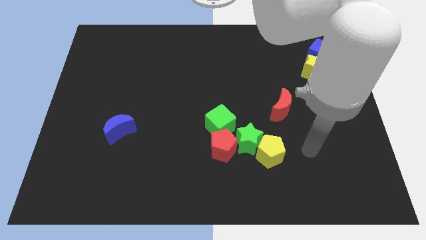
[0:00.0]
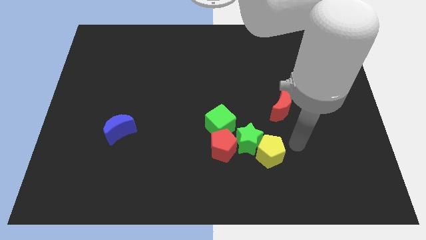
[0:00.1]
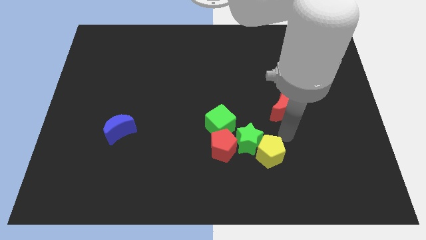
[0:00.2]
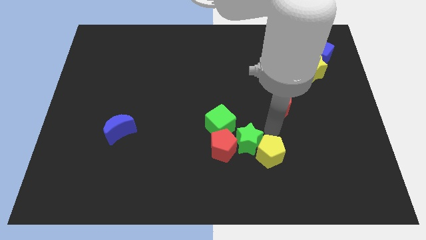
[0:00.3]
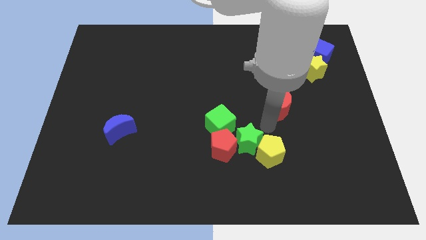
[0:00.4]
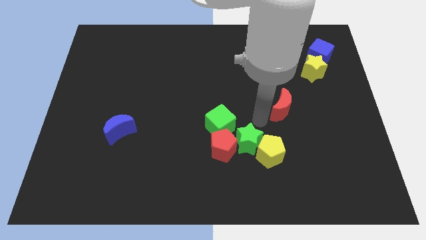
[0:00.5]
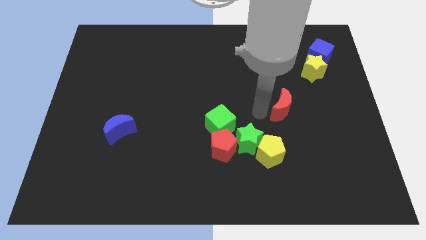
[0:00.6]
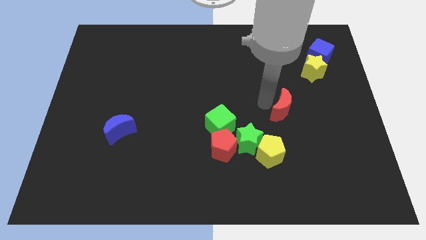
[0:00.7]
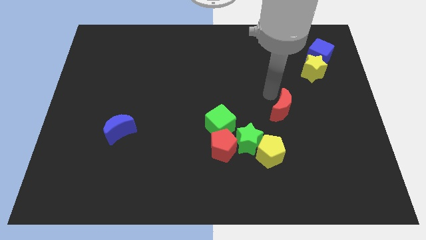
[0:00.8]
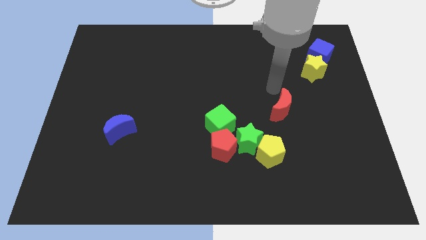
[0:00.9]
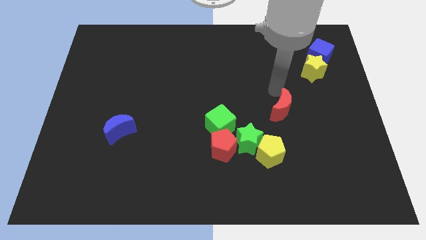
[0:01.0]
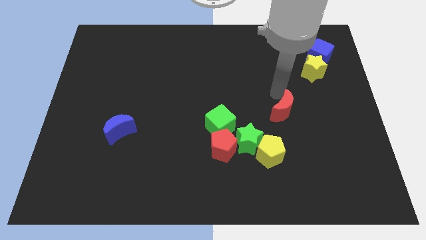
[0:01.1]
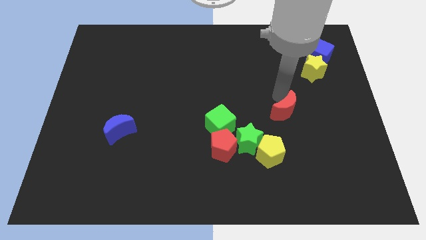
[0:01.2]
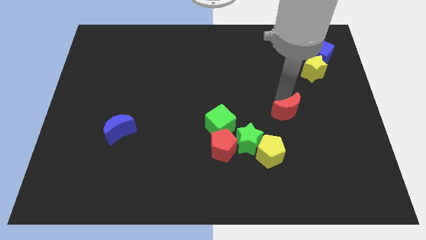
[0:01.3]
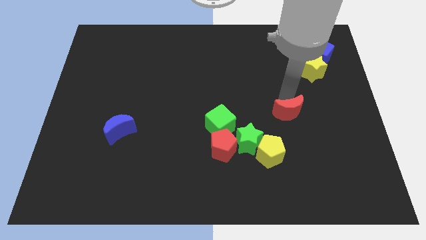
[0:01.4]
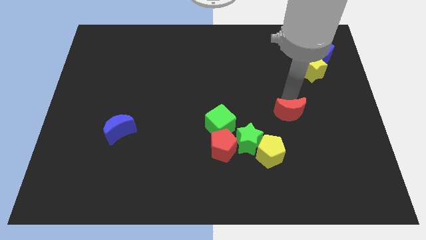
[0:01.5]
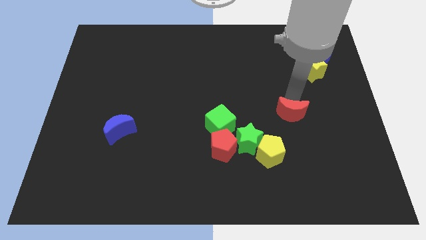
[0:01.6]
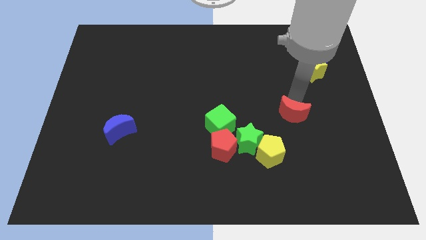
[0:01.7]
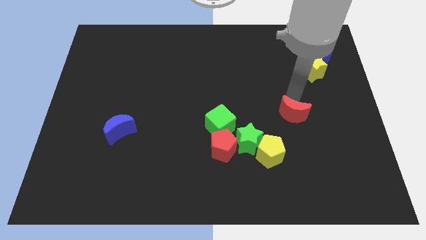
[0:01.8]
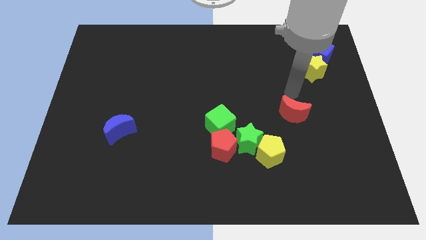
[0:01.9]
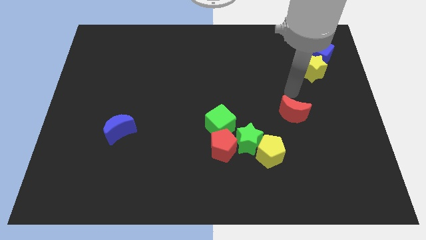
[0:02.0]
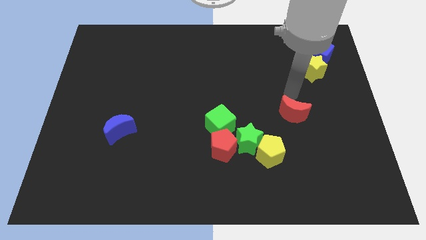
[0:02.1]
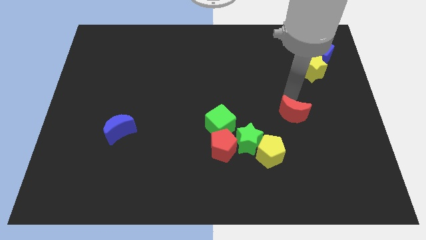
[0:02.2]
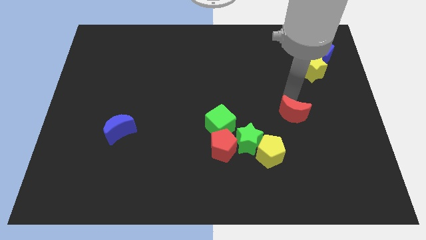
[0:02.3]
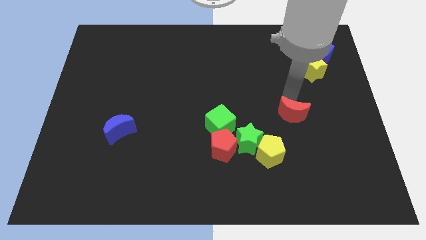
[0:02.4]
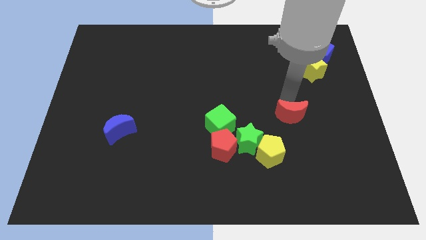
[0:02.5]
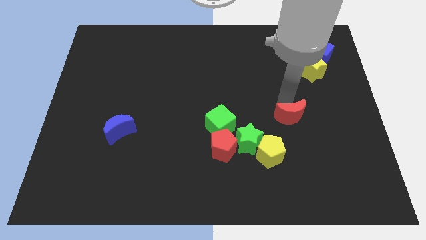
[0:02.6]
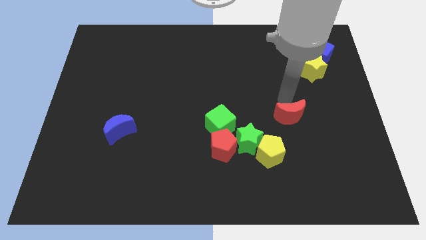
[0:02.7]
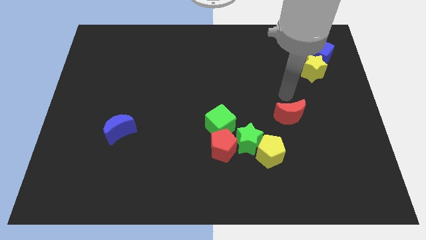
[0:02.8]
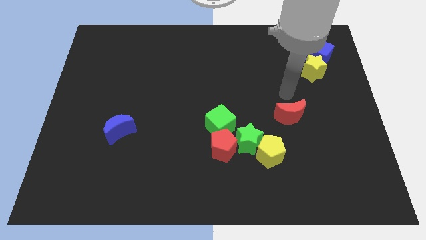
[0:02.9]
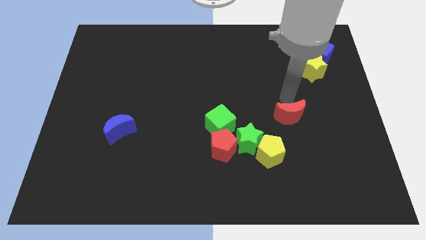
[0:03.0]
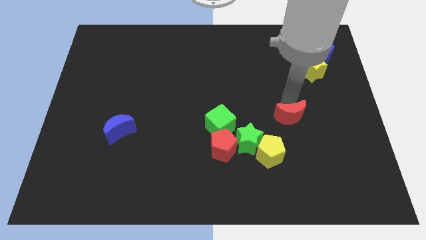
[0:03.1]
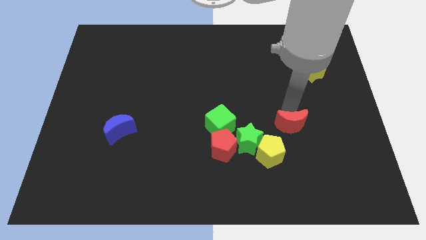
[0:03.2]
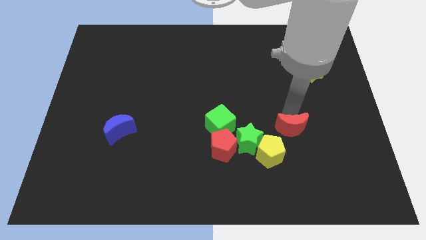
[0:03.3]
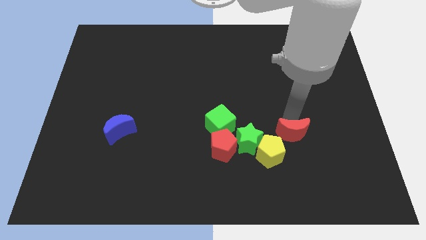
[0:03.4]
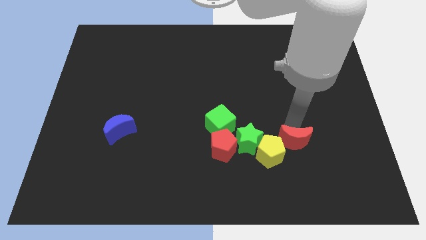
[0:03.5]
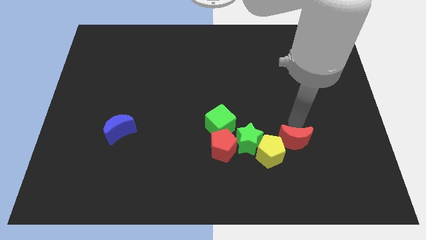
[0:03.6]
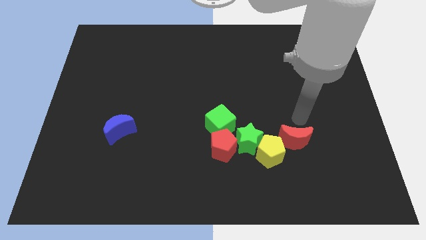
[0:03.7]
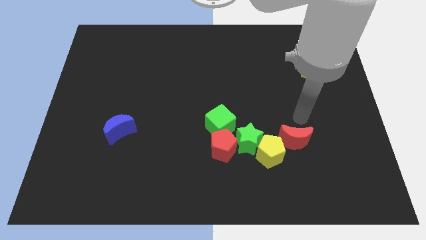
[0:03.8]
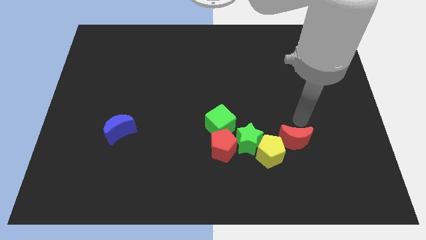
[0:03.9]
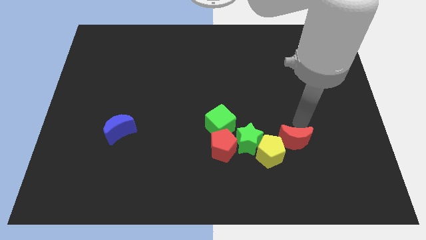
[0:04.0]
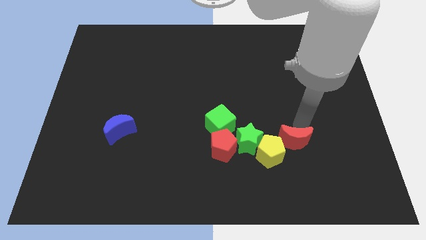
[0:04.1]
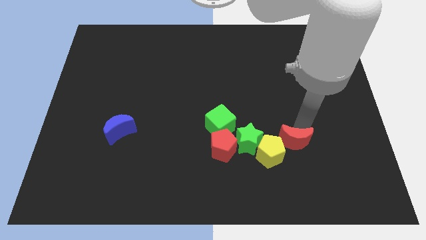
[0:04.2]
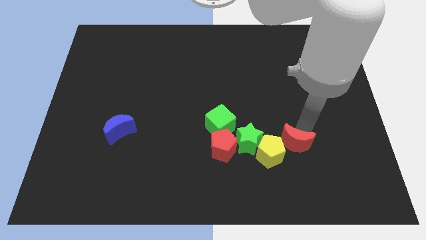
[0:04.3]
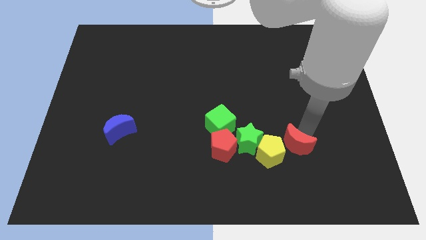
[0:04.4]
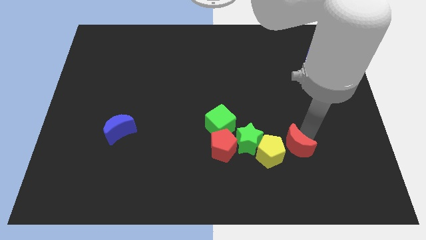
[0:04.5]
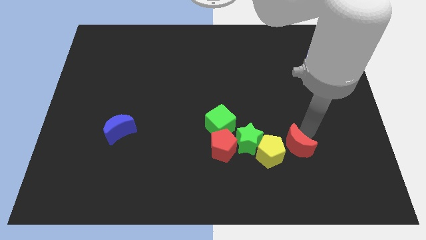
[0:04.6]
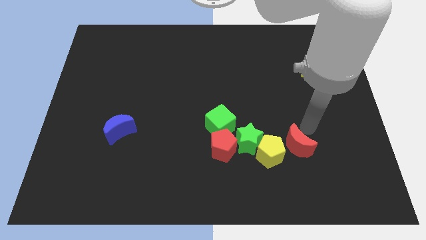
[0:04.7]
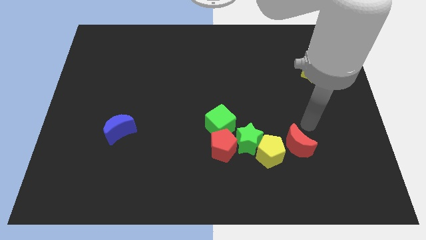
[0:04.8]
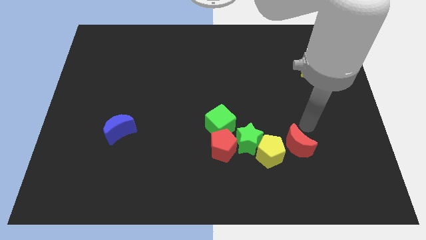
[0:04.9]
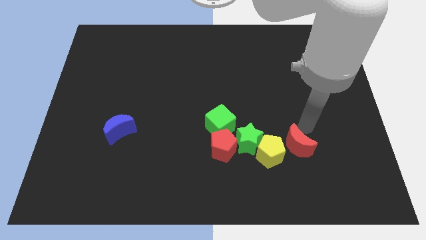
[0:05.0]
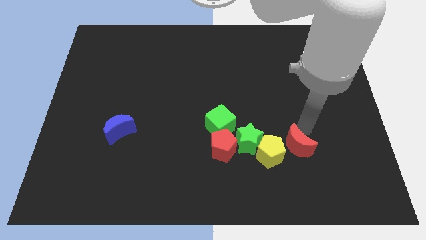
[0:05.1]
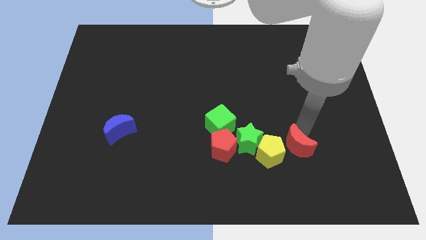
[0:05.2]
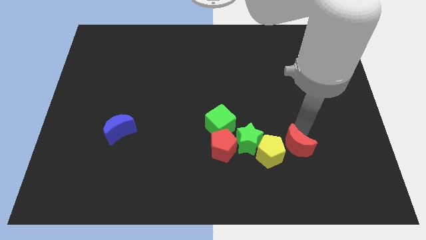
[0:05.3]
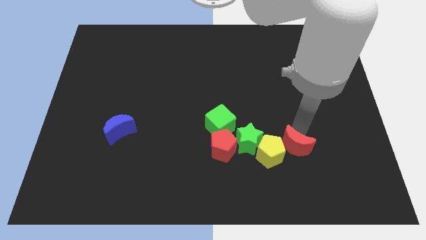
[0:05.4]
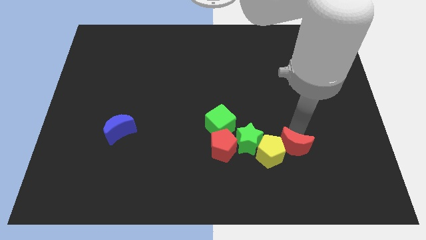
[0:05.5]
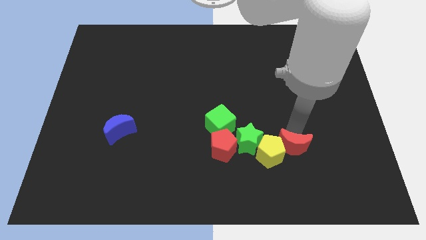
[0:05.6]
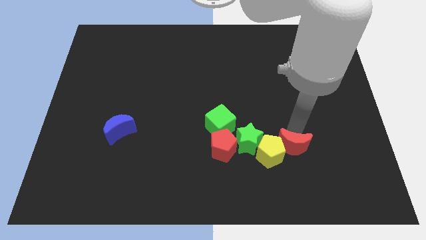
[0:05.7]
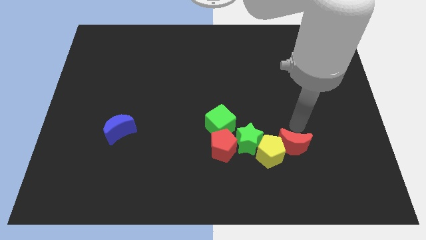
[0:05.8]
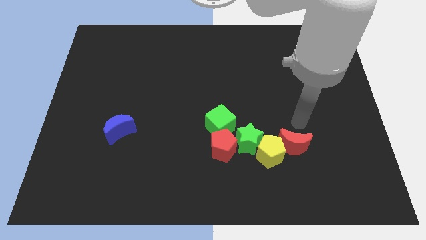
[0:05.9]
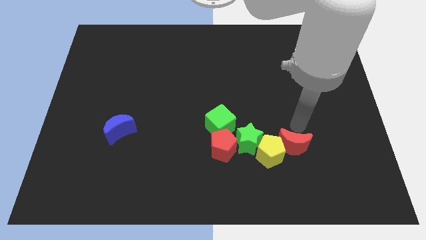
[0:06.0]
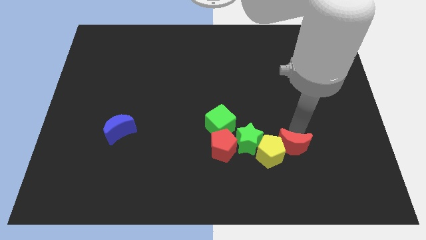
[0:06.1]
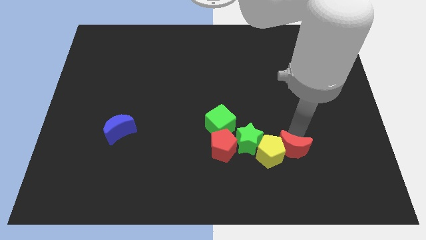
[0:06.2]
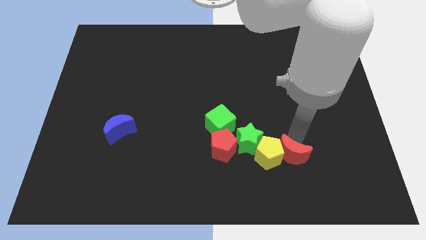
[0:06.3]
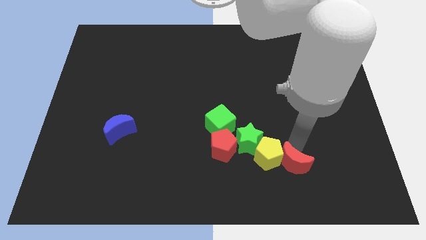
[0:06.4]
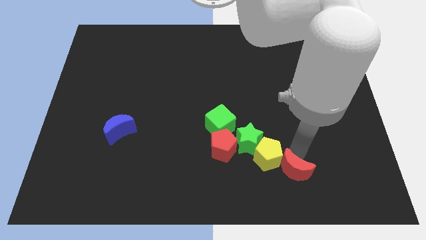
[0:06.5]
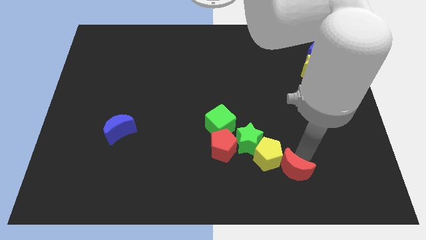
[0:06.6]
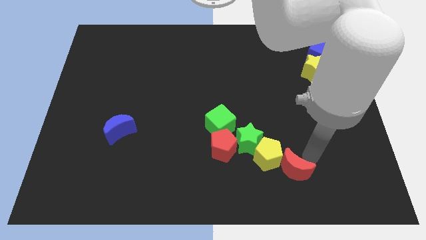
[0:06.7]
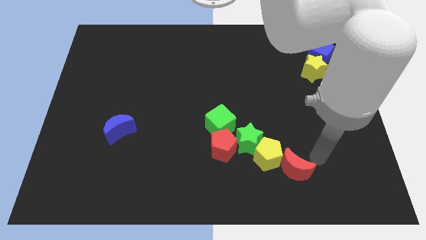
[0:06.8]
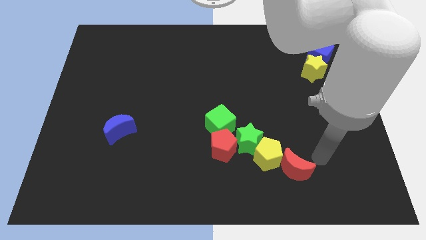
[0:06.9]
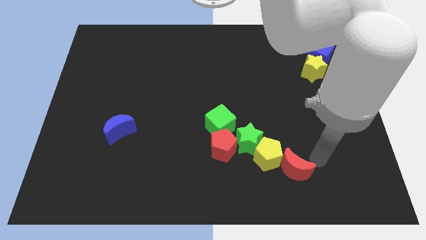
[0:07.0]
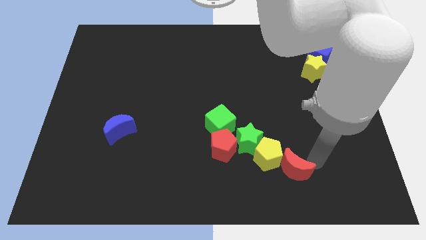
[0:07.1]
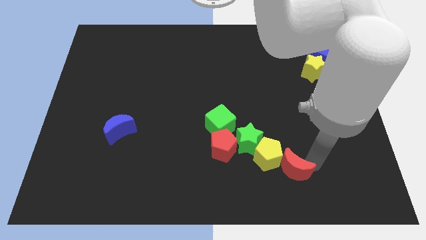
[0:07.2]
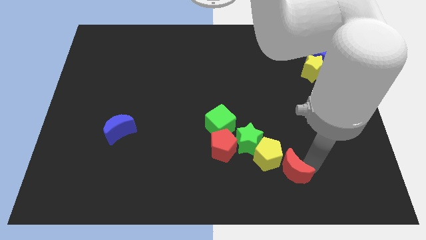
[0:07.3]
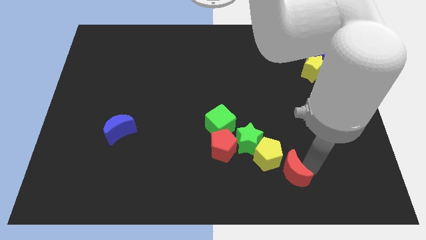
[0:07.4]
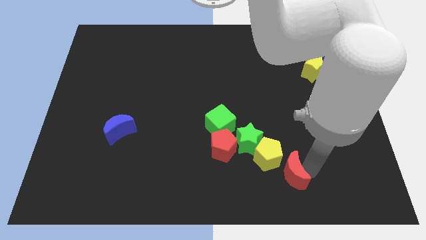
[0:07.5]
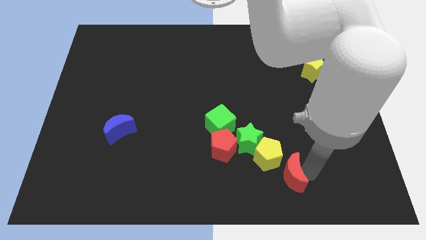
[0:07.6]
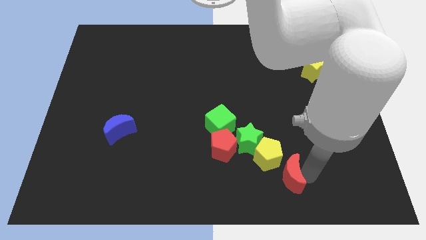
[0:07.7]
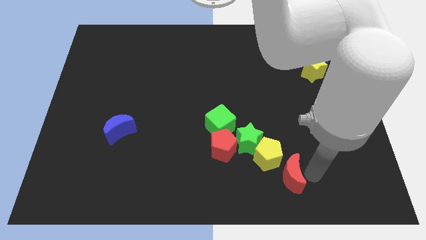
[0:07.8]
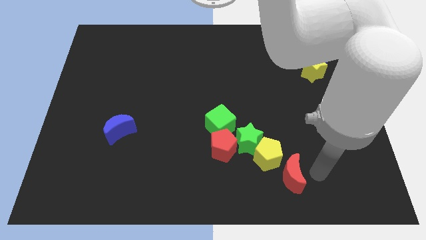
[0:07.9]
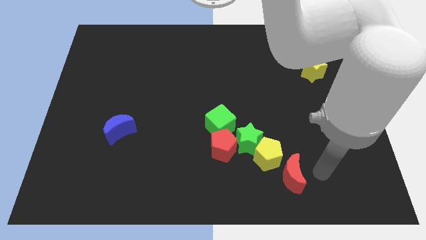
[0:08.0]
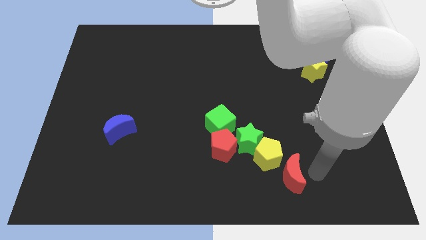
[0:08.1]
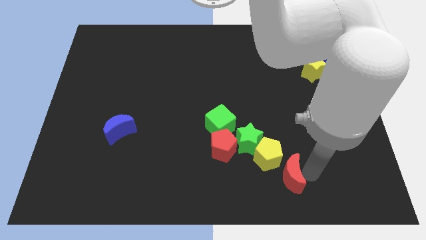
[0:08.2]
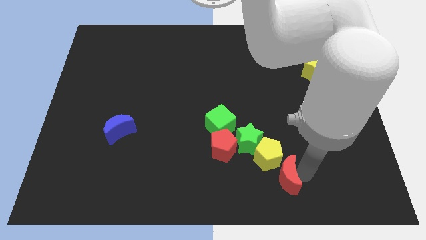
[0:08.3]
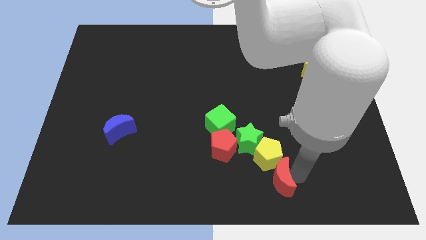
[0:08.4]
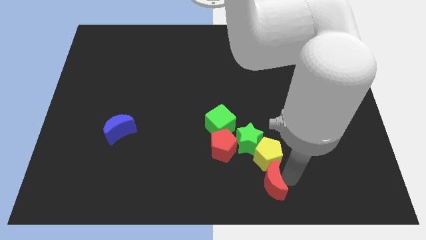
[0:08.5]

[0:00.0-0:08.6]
push the red moon to the bottom side
